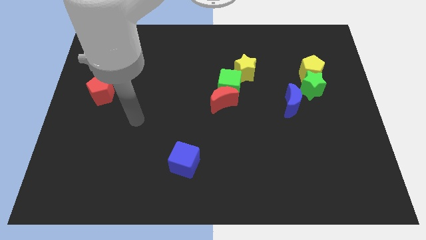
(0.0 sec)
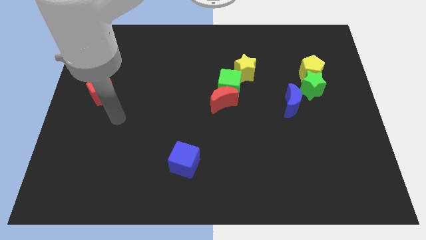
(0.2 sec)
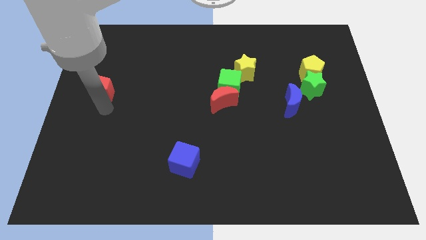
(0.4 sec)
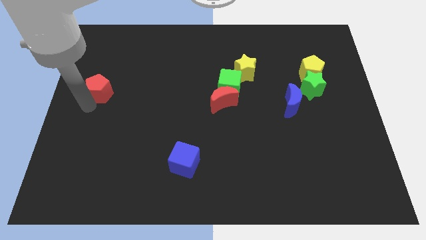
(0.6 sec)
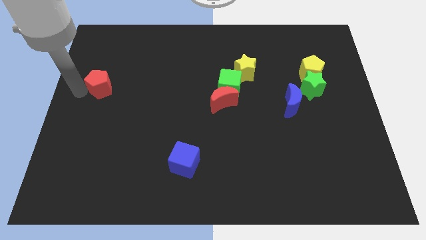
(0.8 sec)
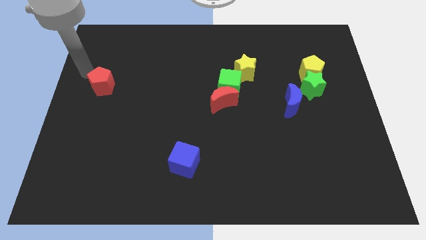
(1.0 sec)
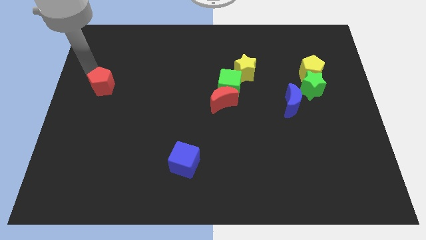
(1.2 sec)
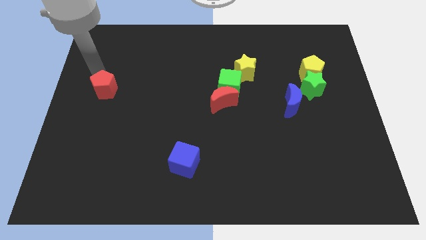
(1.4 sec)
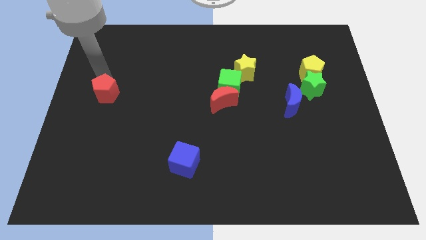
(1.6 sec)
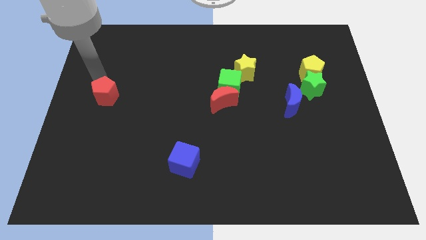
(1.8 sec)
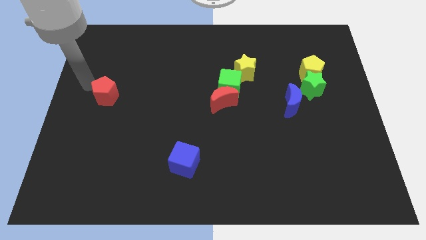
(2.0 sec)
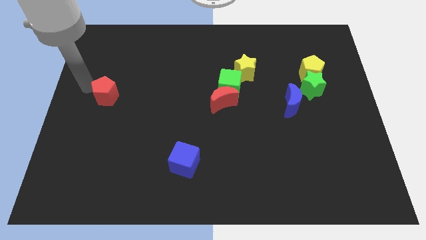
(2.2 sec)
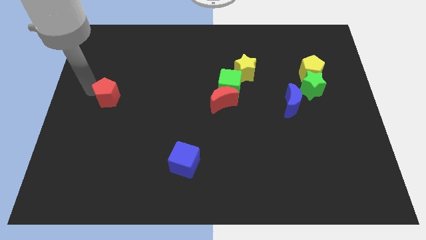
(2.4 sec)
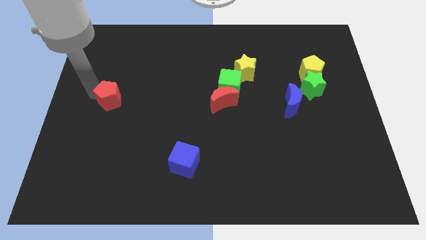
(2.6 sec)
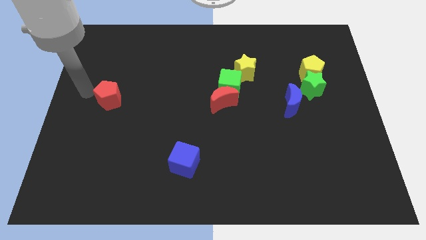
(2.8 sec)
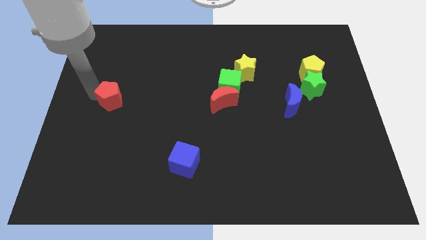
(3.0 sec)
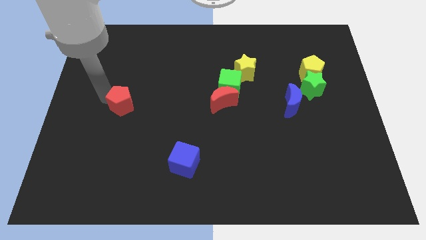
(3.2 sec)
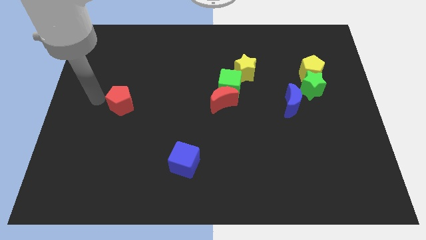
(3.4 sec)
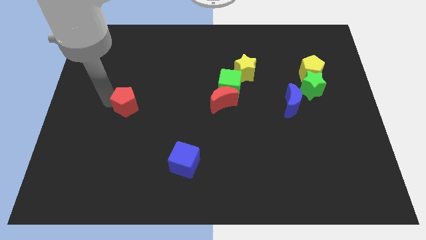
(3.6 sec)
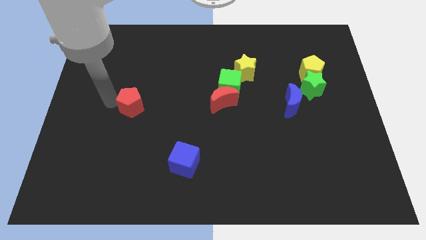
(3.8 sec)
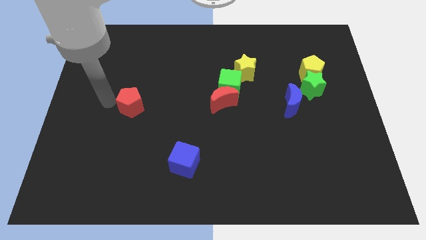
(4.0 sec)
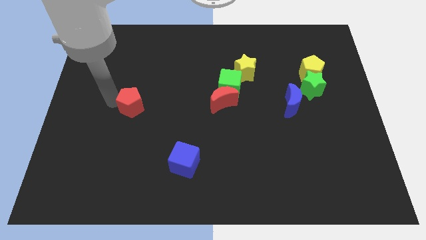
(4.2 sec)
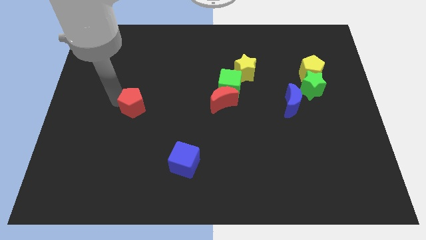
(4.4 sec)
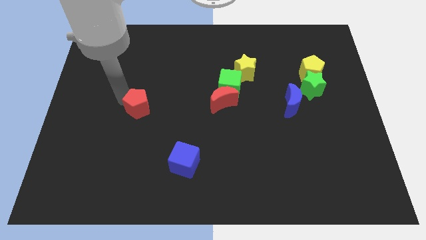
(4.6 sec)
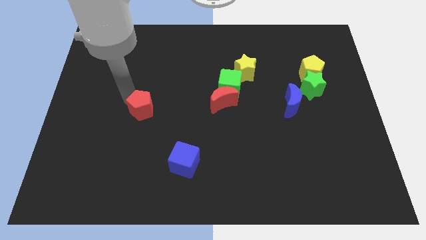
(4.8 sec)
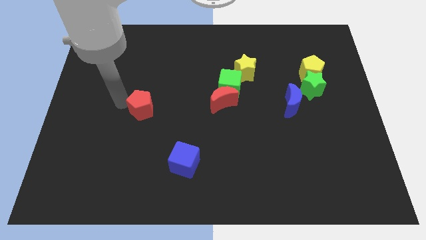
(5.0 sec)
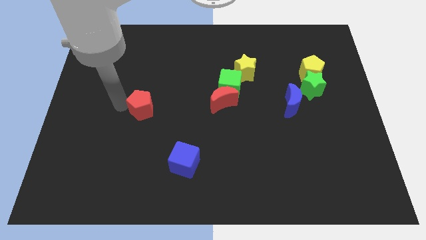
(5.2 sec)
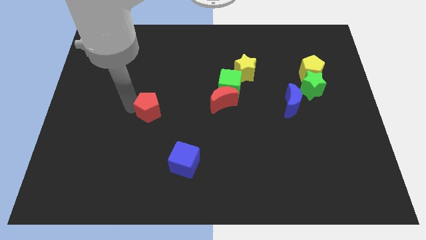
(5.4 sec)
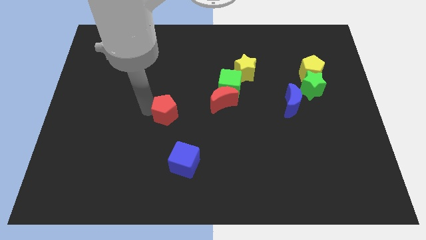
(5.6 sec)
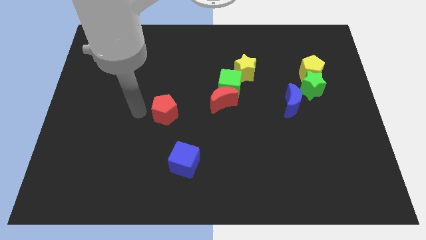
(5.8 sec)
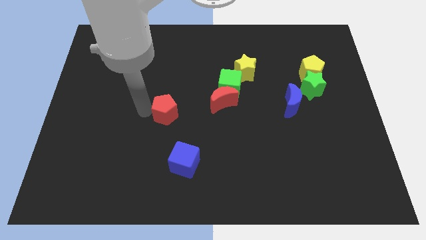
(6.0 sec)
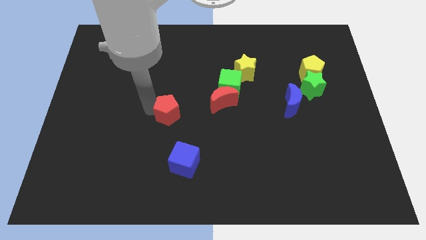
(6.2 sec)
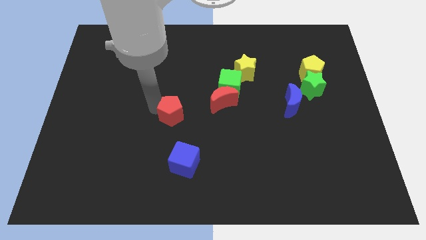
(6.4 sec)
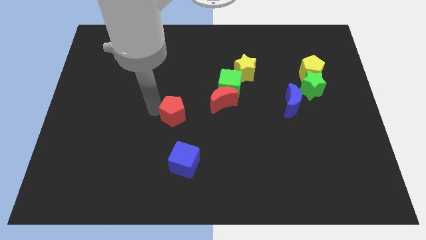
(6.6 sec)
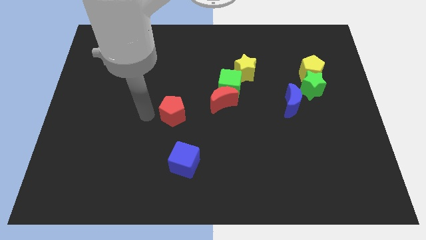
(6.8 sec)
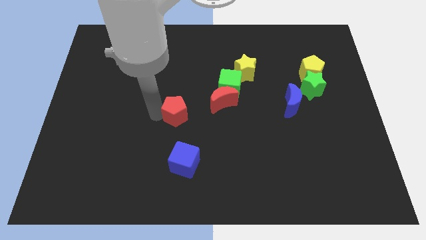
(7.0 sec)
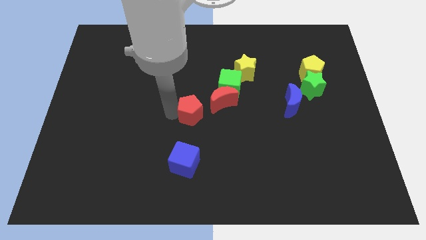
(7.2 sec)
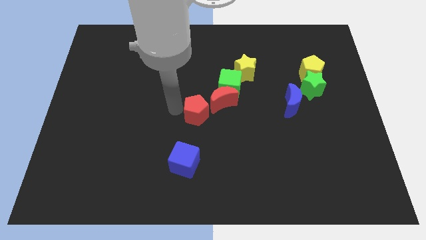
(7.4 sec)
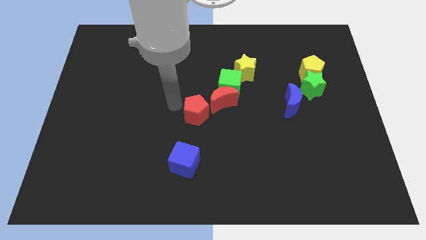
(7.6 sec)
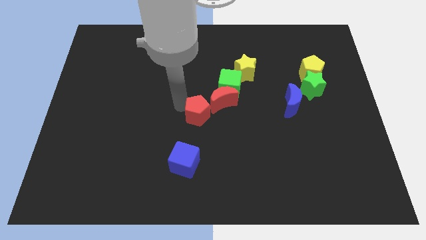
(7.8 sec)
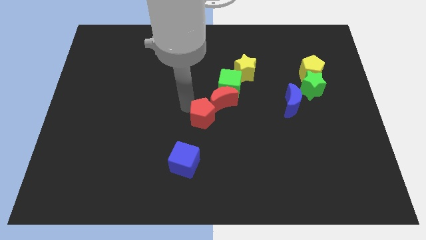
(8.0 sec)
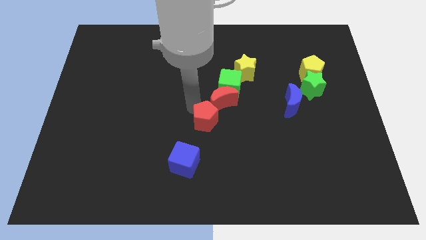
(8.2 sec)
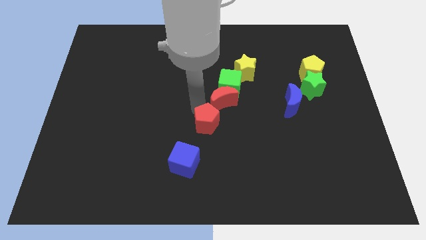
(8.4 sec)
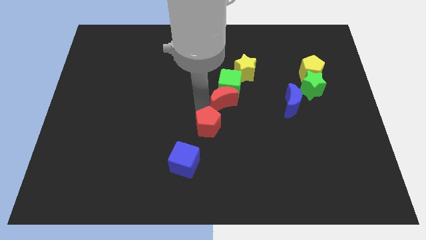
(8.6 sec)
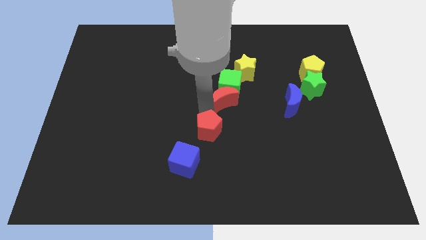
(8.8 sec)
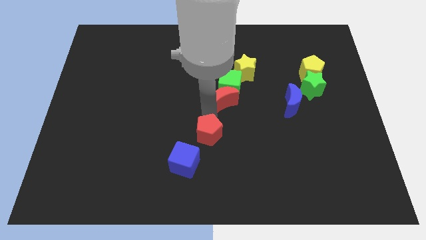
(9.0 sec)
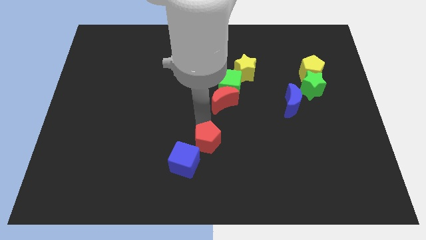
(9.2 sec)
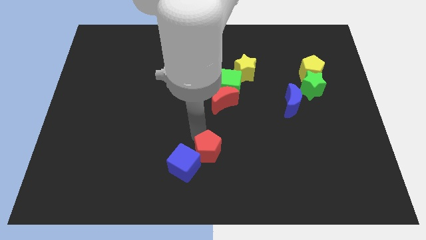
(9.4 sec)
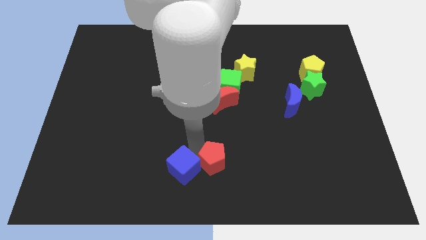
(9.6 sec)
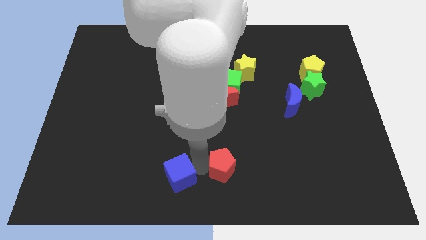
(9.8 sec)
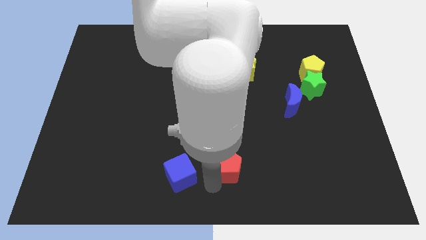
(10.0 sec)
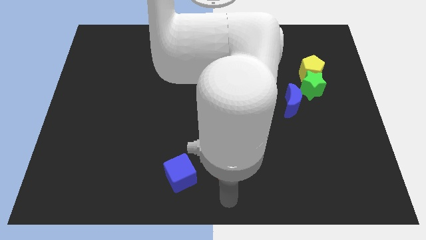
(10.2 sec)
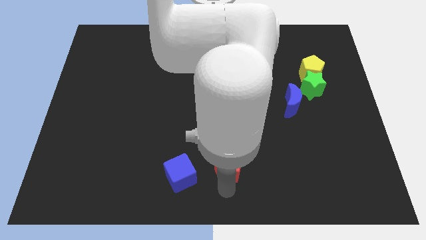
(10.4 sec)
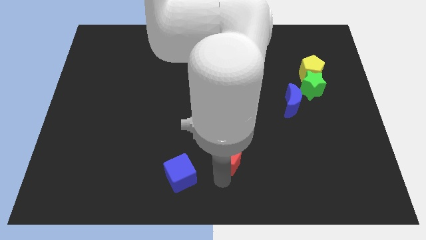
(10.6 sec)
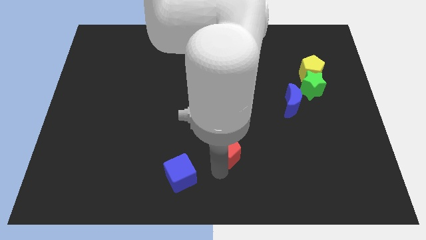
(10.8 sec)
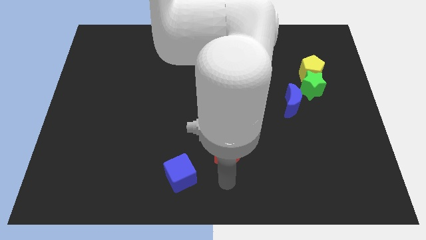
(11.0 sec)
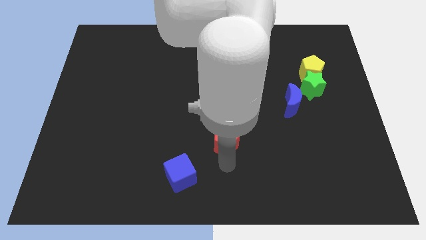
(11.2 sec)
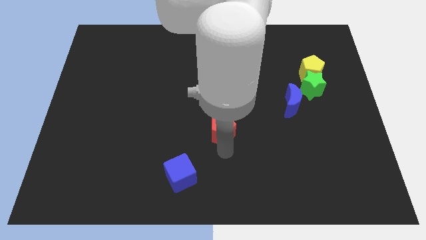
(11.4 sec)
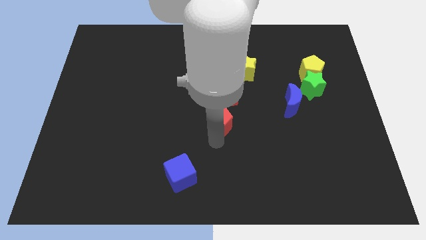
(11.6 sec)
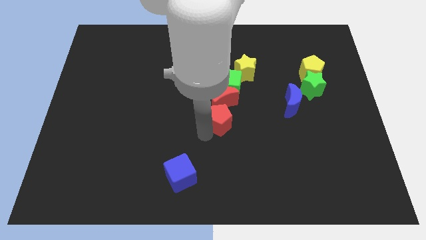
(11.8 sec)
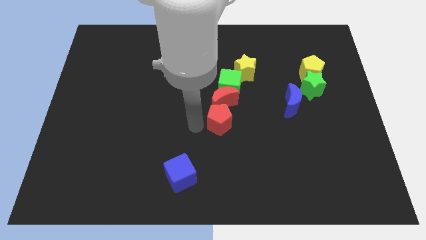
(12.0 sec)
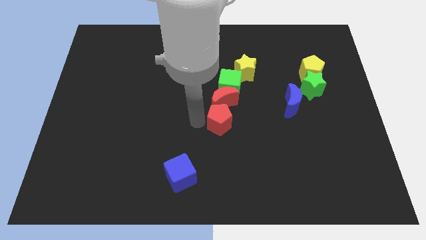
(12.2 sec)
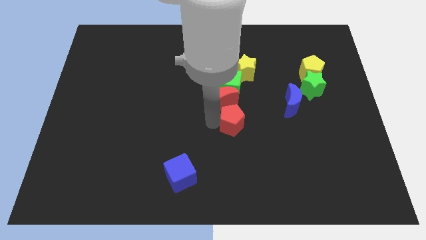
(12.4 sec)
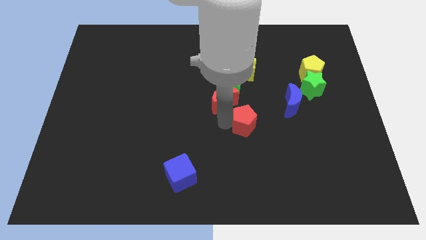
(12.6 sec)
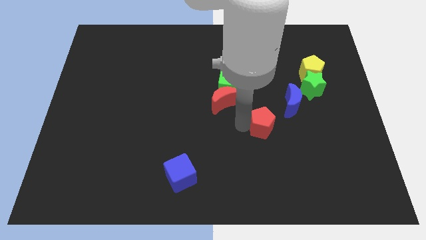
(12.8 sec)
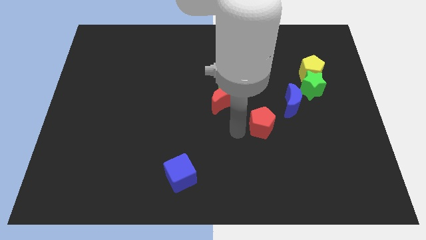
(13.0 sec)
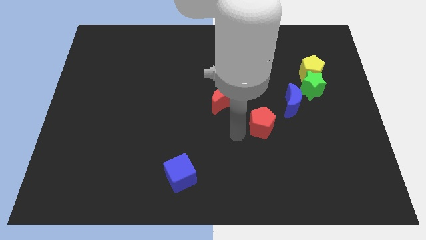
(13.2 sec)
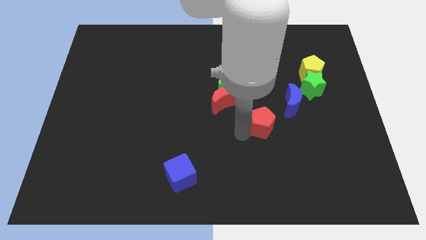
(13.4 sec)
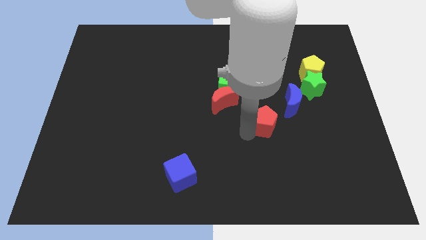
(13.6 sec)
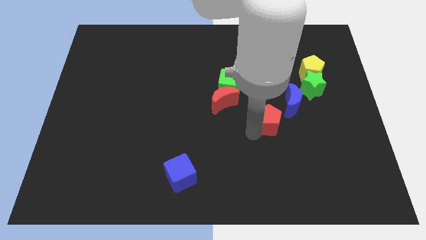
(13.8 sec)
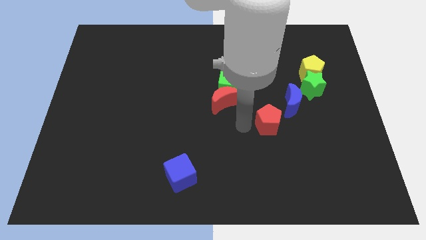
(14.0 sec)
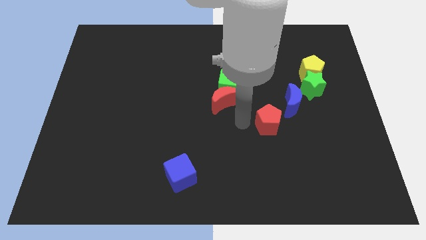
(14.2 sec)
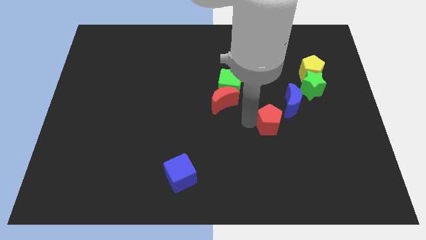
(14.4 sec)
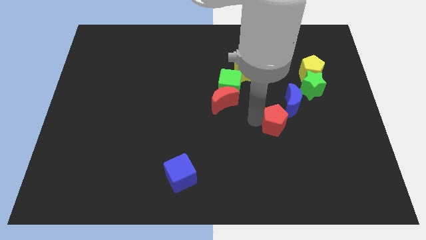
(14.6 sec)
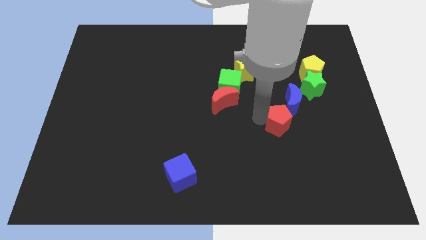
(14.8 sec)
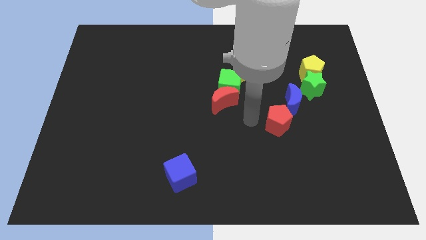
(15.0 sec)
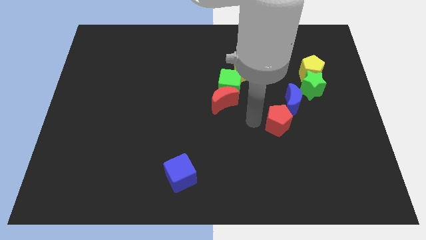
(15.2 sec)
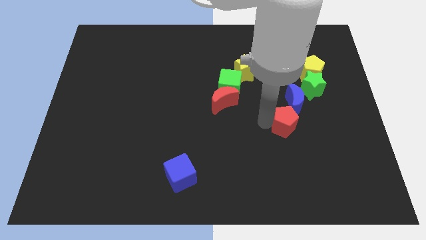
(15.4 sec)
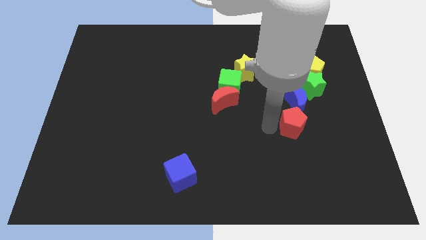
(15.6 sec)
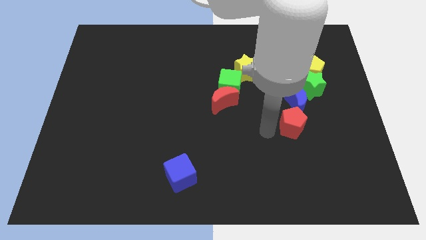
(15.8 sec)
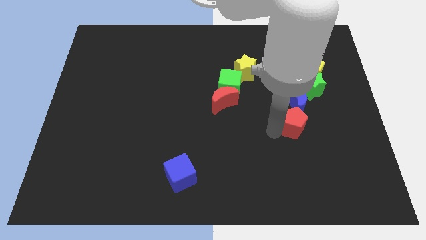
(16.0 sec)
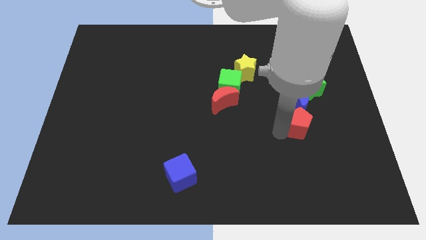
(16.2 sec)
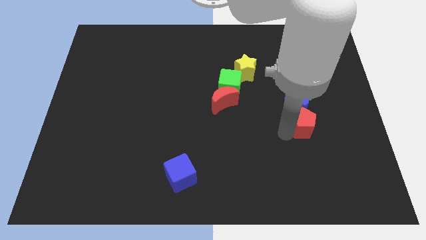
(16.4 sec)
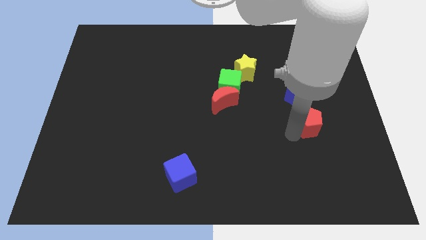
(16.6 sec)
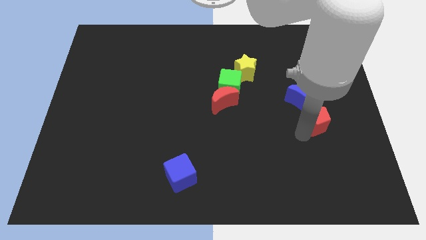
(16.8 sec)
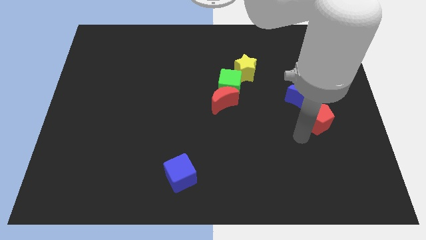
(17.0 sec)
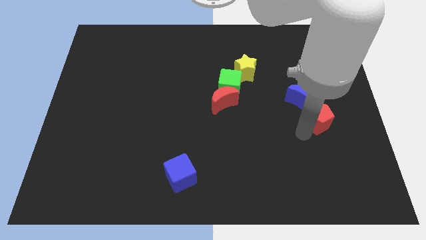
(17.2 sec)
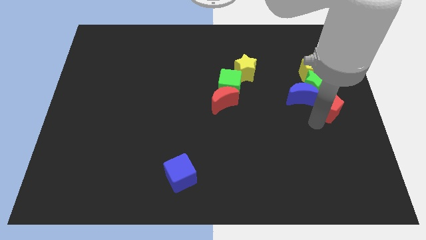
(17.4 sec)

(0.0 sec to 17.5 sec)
put the red pentagon to the right side of the blue moon
